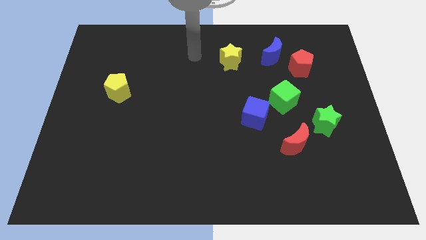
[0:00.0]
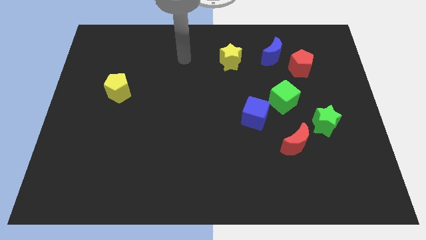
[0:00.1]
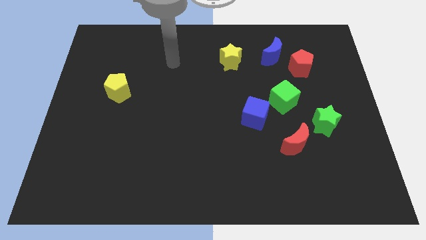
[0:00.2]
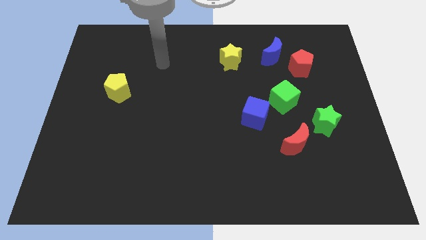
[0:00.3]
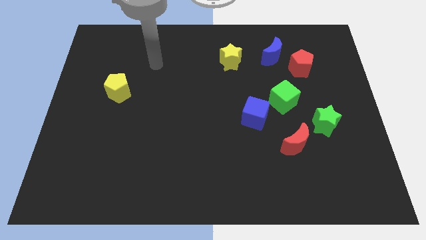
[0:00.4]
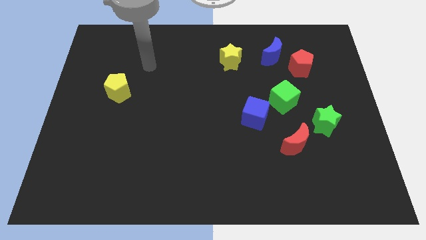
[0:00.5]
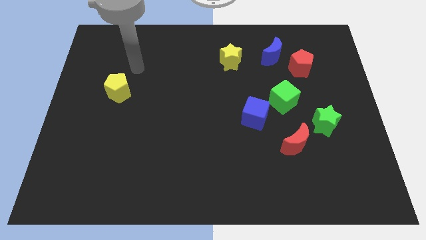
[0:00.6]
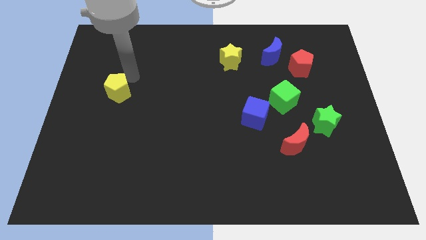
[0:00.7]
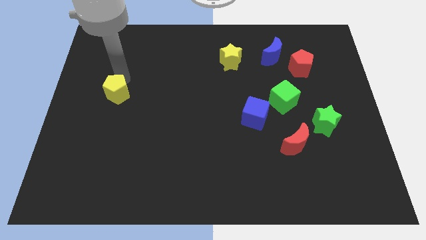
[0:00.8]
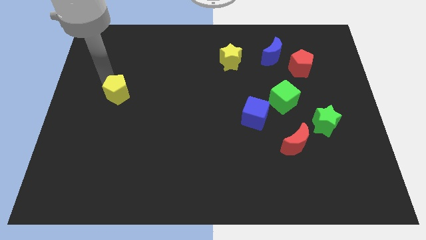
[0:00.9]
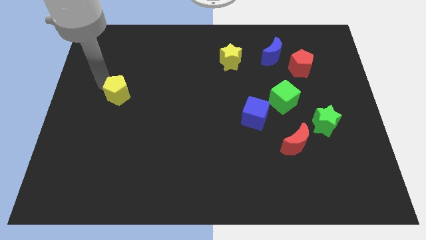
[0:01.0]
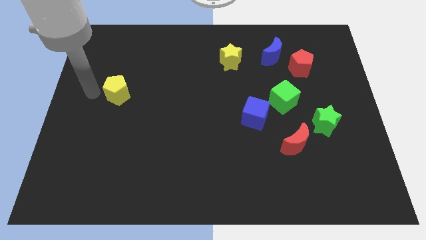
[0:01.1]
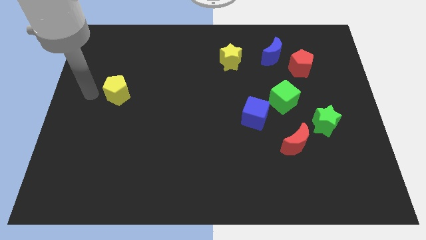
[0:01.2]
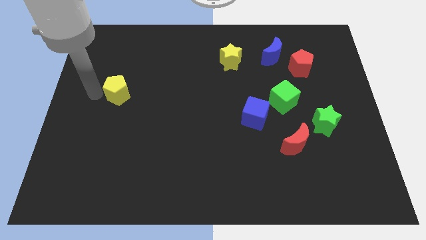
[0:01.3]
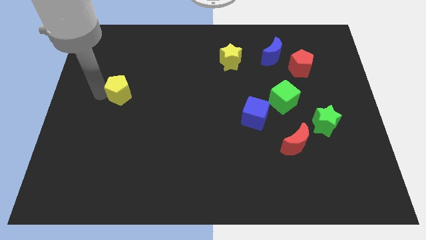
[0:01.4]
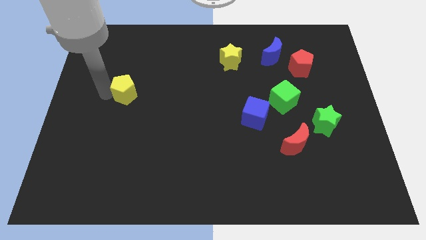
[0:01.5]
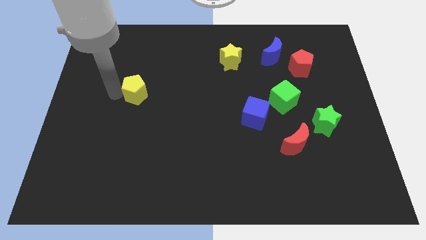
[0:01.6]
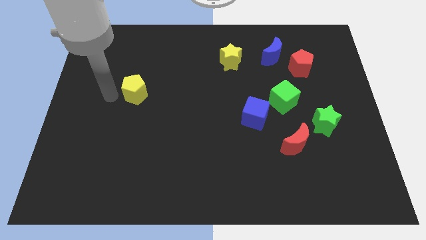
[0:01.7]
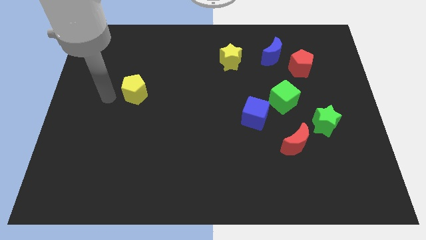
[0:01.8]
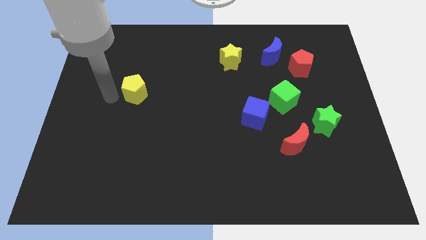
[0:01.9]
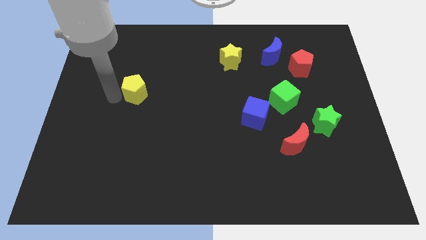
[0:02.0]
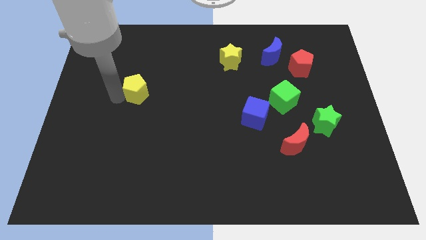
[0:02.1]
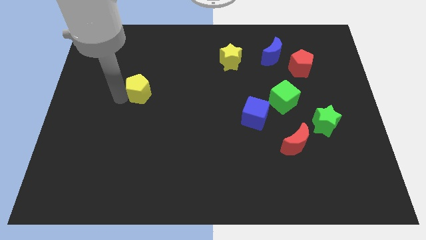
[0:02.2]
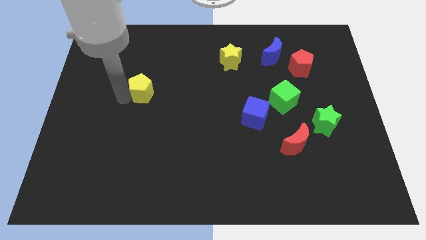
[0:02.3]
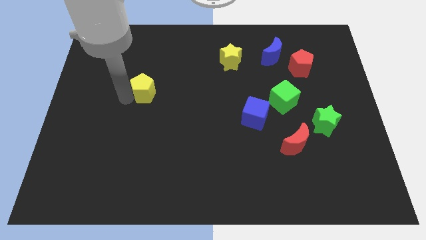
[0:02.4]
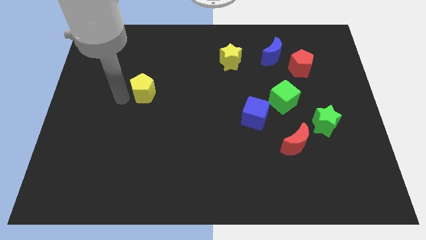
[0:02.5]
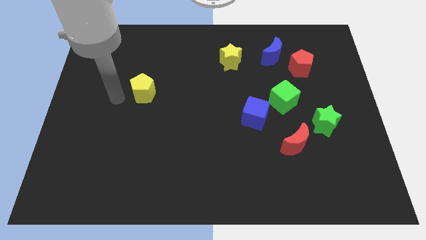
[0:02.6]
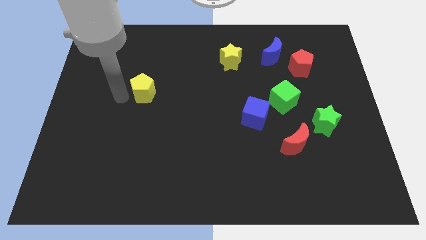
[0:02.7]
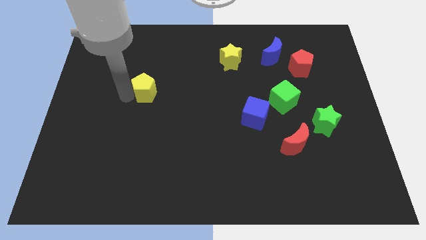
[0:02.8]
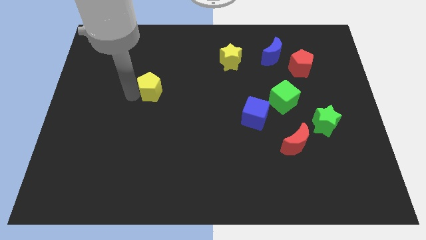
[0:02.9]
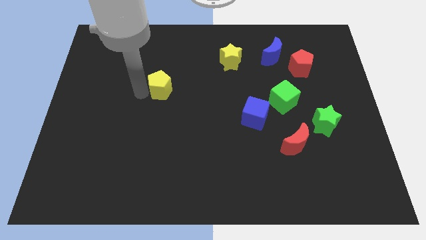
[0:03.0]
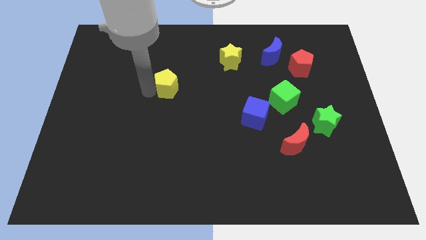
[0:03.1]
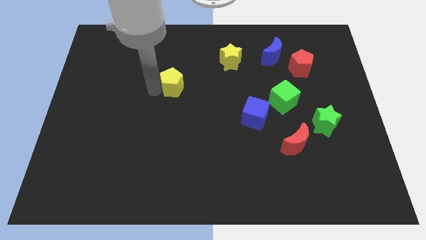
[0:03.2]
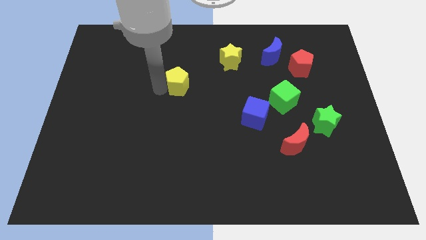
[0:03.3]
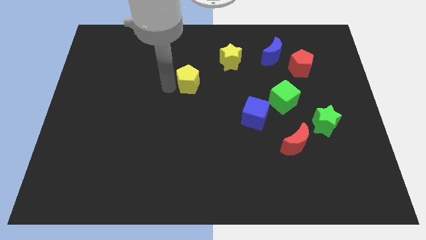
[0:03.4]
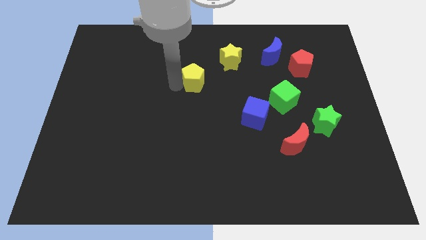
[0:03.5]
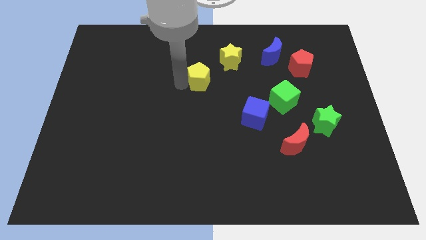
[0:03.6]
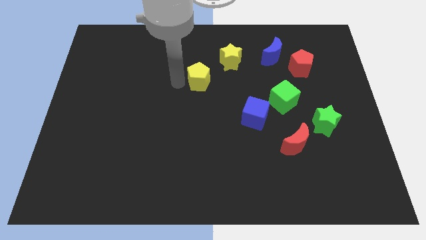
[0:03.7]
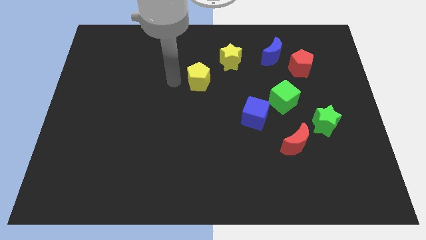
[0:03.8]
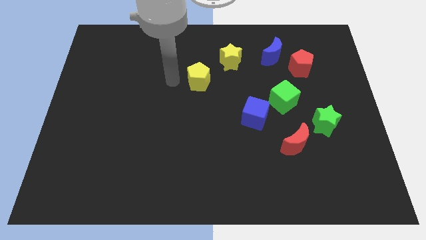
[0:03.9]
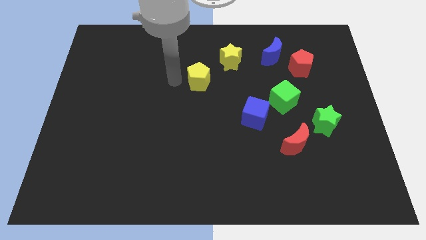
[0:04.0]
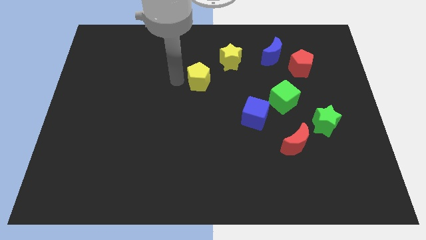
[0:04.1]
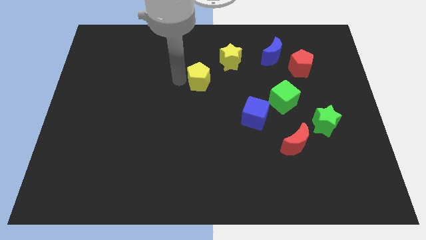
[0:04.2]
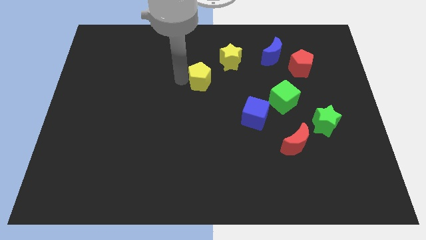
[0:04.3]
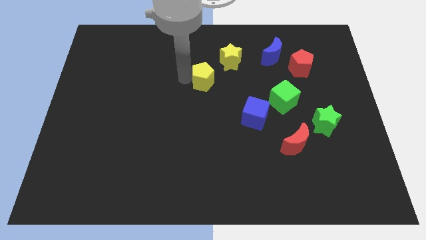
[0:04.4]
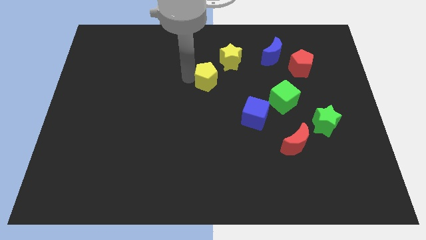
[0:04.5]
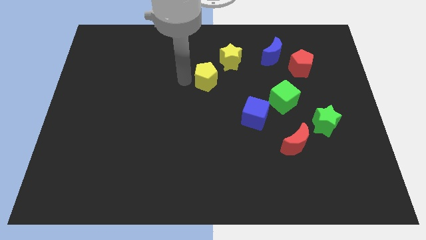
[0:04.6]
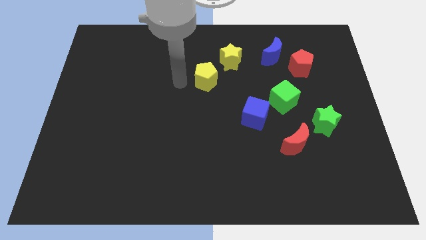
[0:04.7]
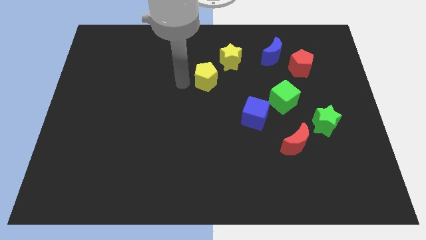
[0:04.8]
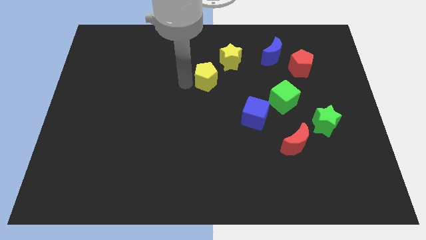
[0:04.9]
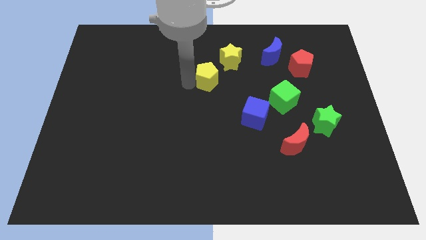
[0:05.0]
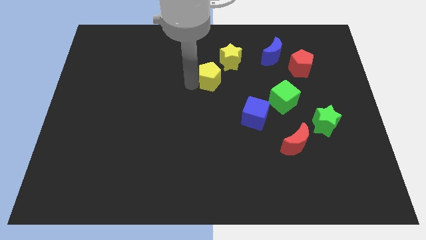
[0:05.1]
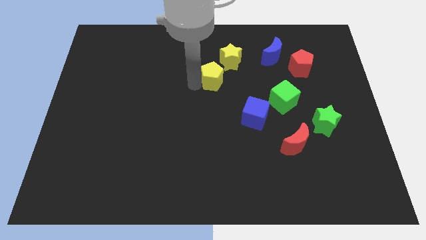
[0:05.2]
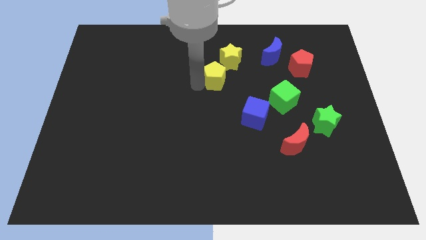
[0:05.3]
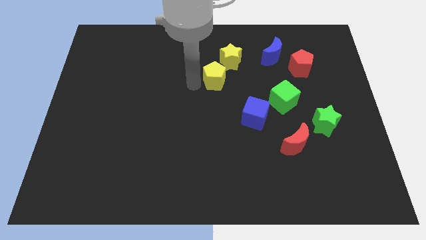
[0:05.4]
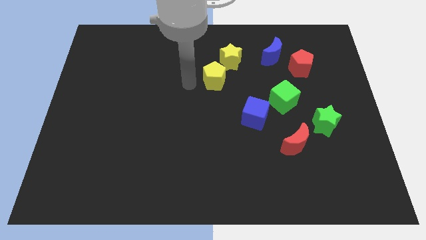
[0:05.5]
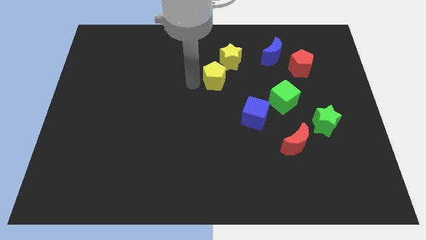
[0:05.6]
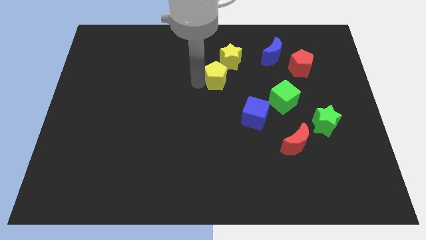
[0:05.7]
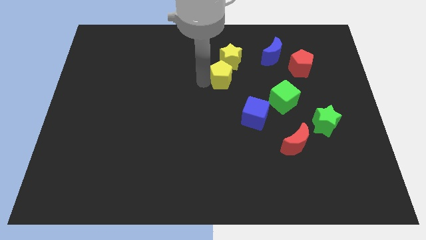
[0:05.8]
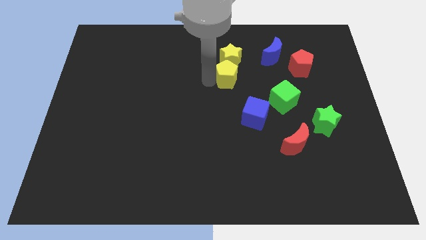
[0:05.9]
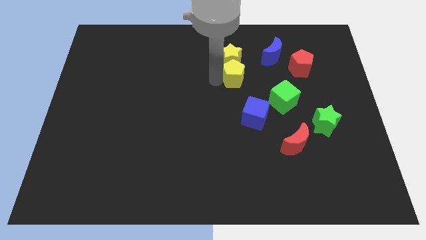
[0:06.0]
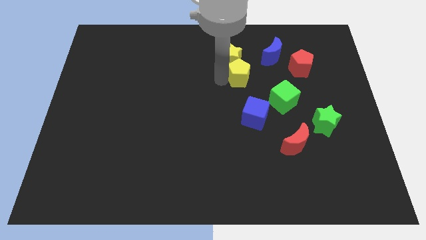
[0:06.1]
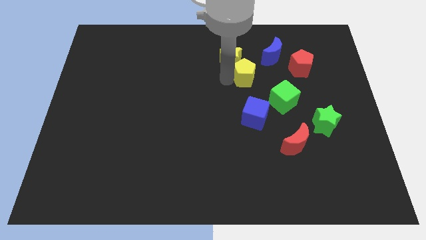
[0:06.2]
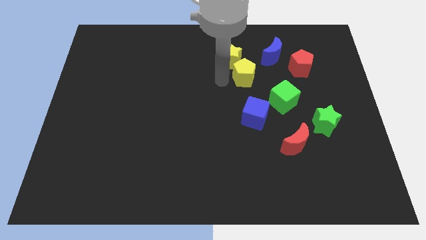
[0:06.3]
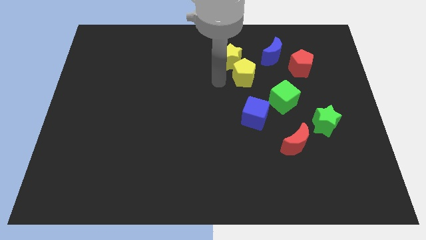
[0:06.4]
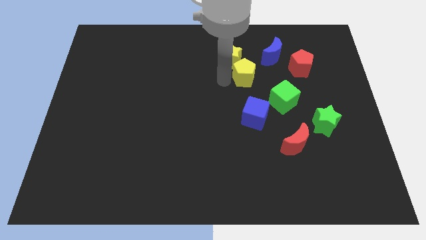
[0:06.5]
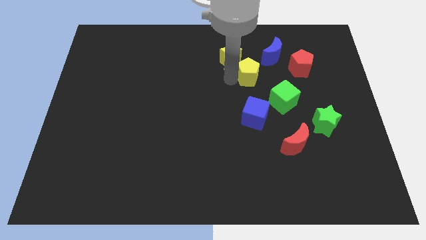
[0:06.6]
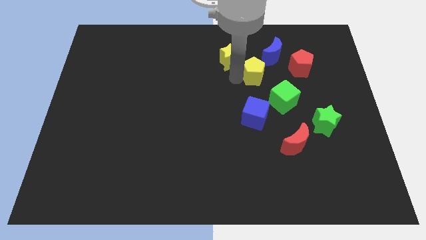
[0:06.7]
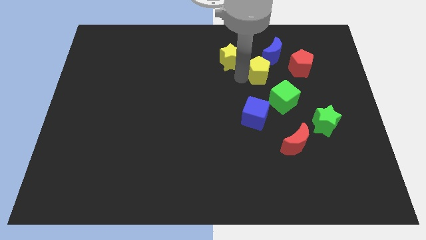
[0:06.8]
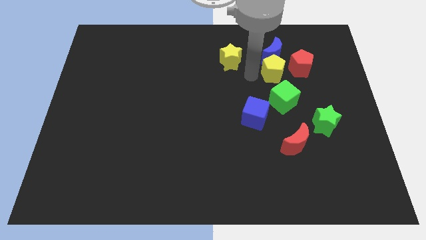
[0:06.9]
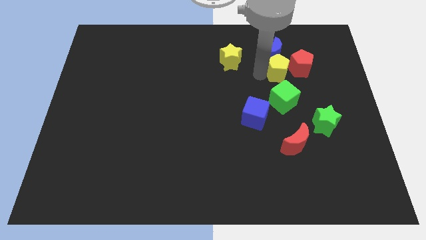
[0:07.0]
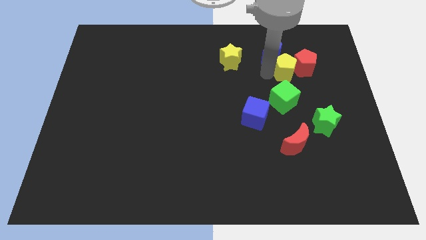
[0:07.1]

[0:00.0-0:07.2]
move the yellow pentagon to the red pentagon

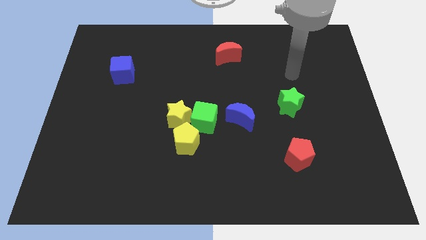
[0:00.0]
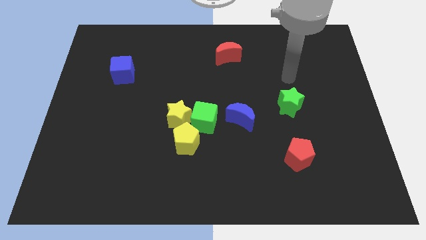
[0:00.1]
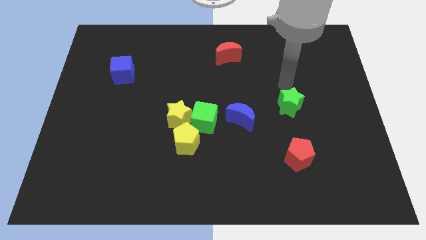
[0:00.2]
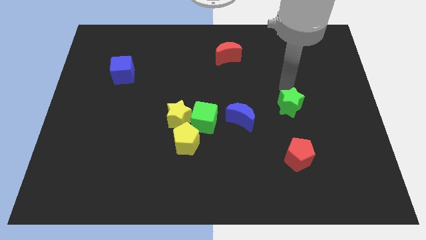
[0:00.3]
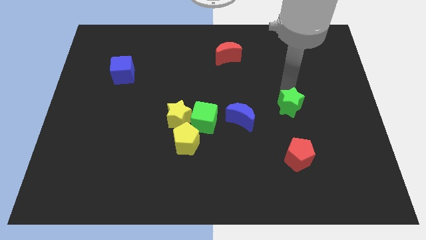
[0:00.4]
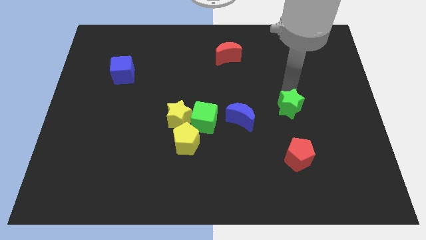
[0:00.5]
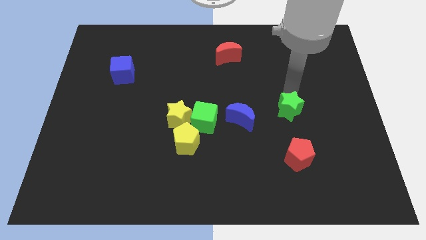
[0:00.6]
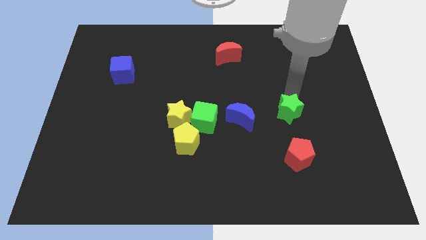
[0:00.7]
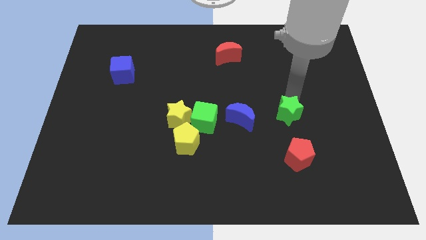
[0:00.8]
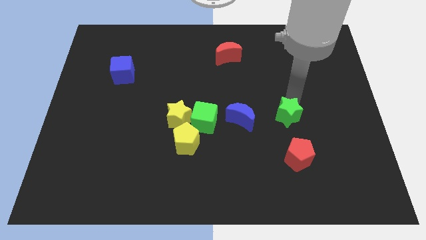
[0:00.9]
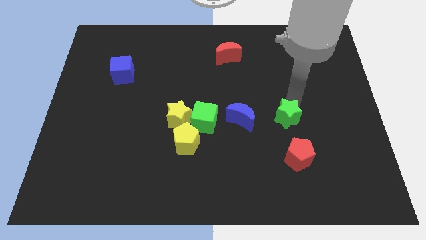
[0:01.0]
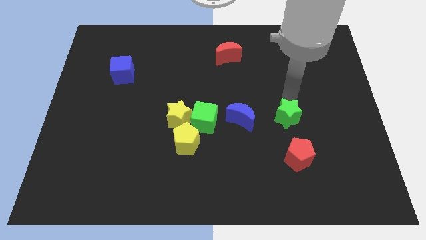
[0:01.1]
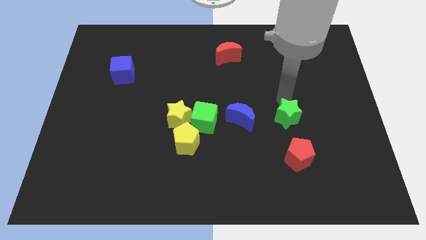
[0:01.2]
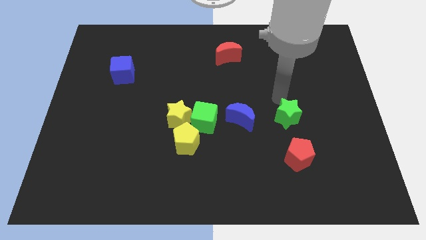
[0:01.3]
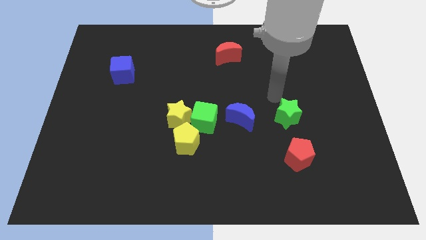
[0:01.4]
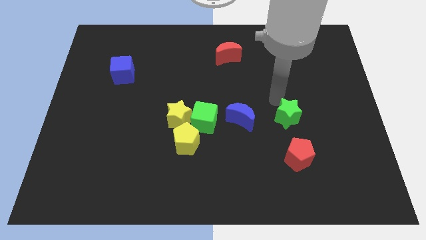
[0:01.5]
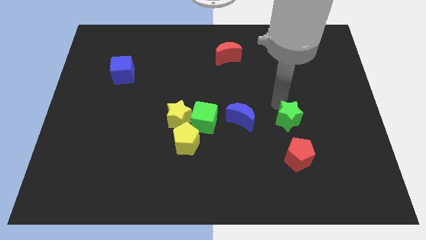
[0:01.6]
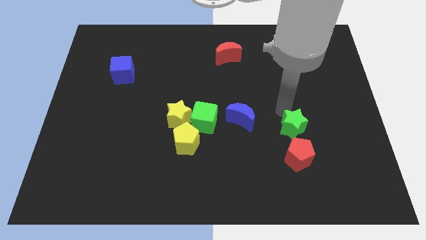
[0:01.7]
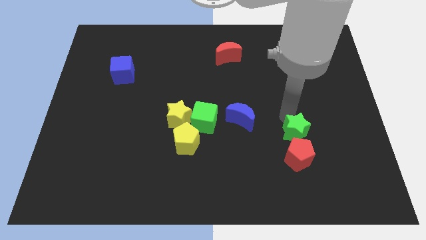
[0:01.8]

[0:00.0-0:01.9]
push the green star to the red pentagon
